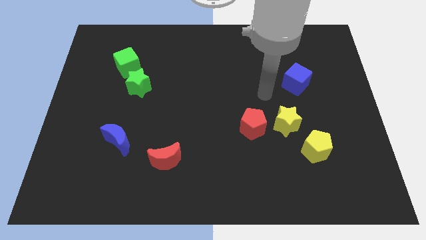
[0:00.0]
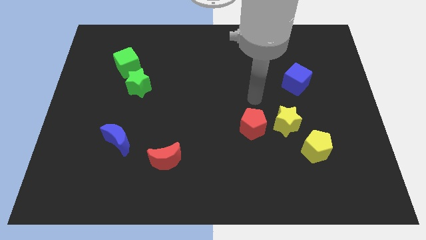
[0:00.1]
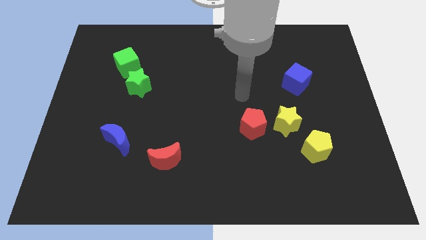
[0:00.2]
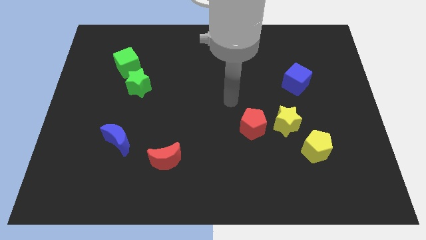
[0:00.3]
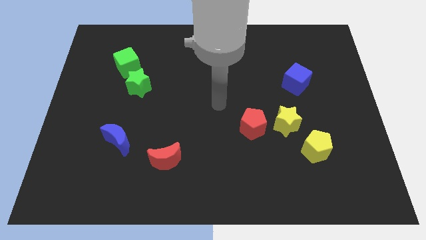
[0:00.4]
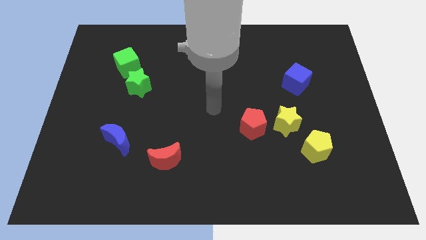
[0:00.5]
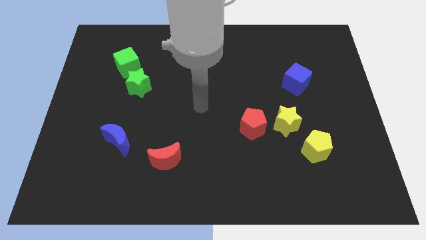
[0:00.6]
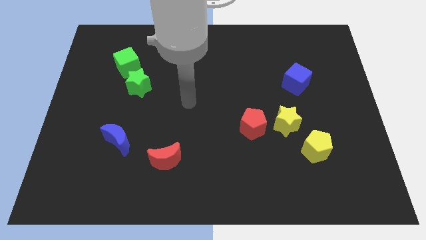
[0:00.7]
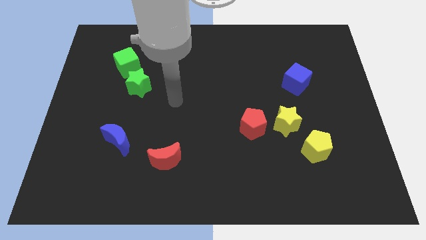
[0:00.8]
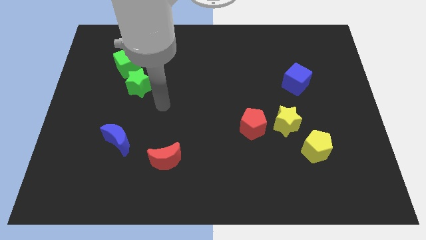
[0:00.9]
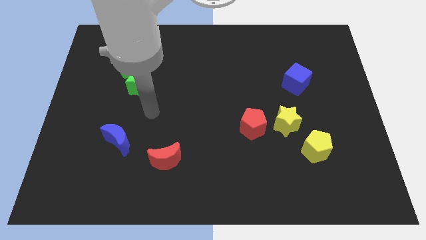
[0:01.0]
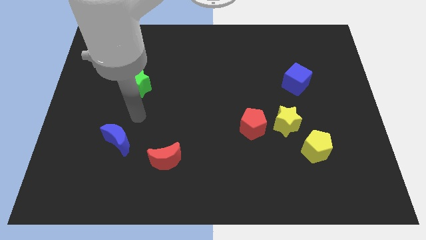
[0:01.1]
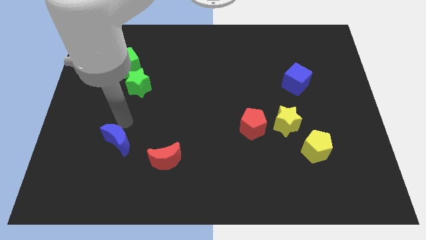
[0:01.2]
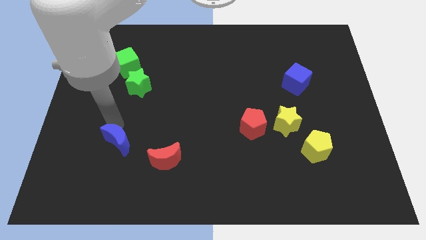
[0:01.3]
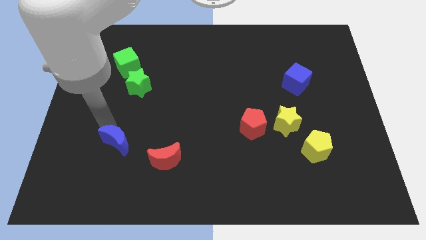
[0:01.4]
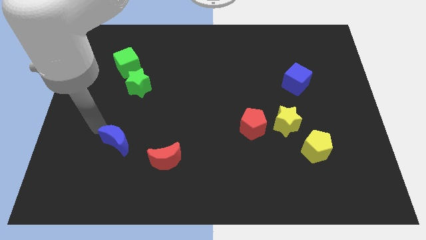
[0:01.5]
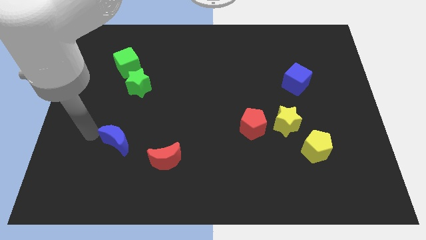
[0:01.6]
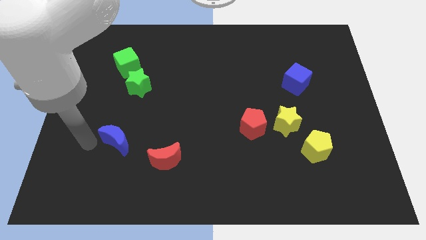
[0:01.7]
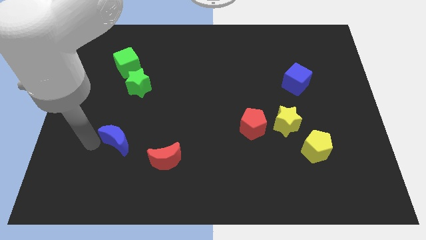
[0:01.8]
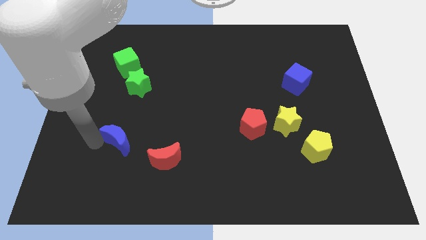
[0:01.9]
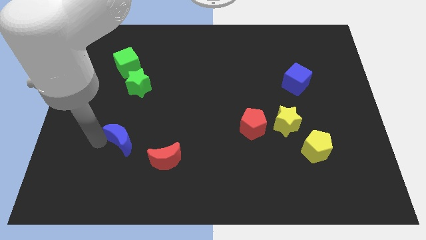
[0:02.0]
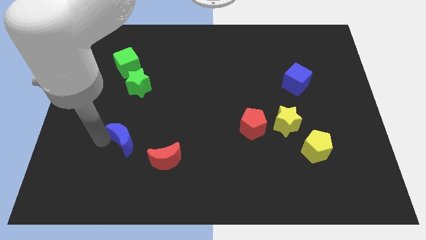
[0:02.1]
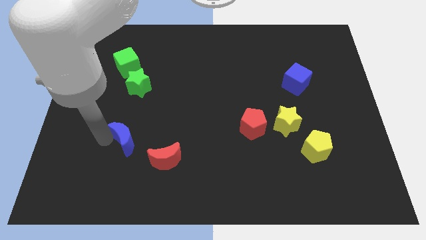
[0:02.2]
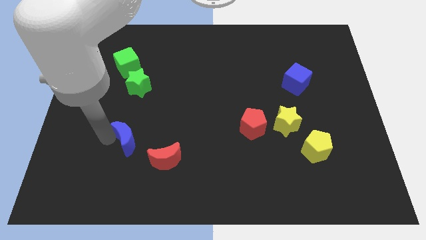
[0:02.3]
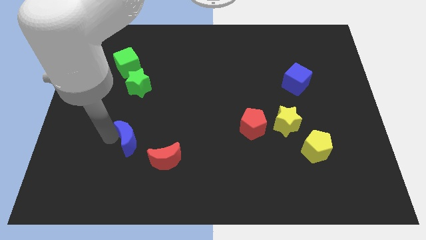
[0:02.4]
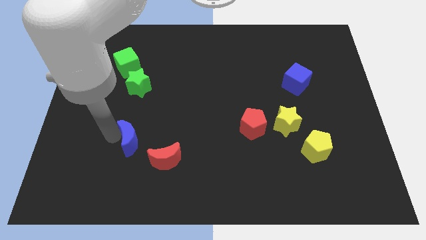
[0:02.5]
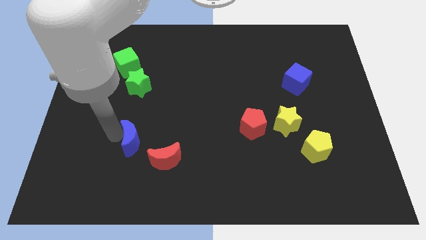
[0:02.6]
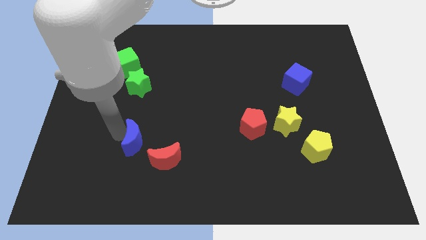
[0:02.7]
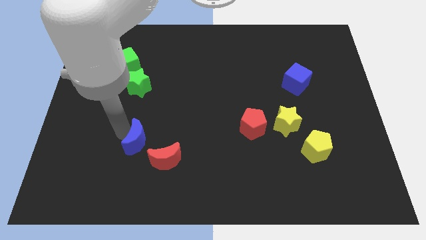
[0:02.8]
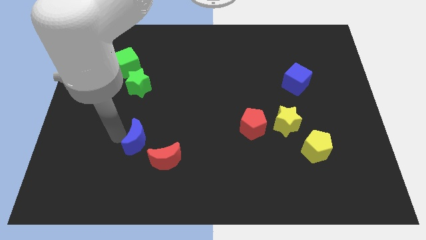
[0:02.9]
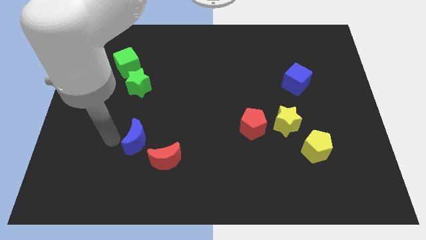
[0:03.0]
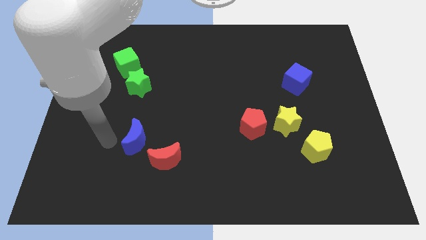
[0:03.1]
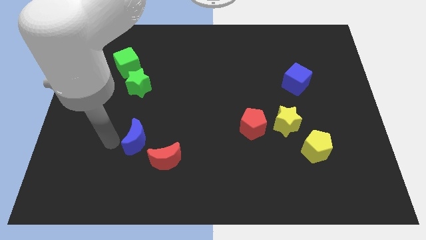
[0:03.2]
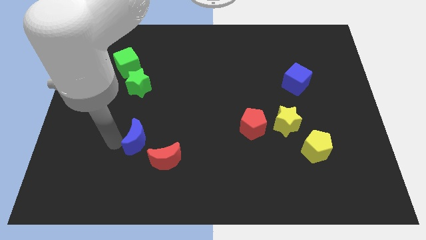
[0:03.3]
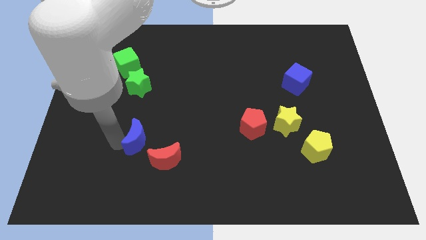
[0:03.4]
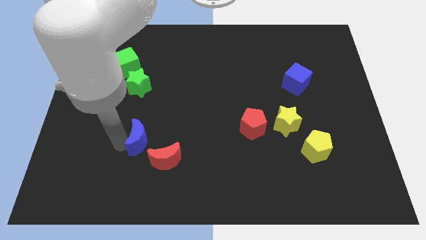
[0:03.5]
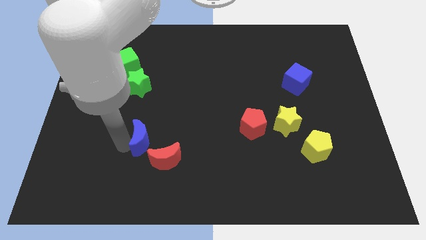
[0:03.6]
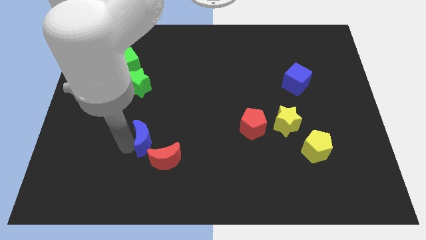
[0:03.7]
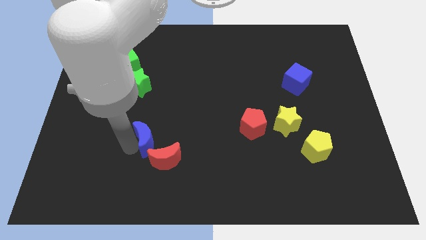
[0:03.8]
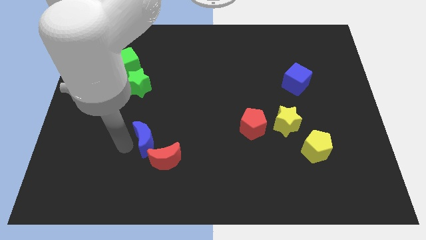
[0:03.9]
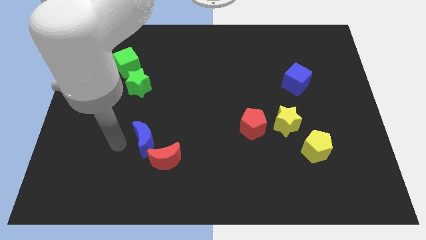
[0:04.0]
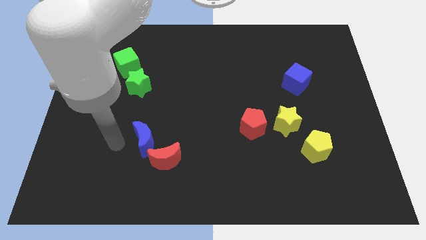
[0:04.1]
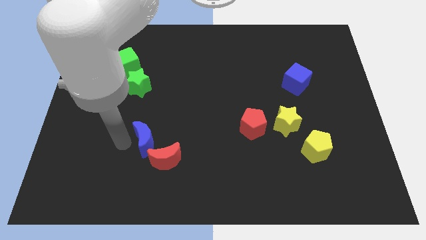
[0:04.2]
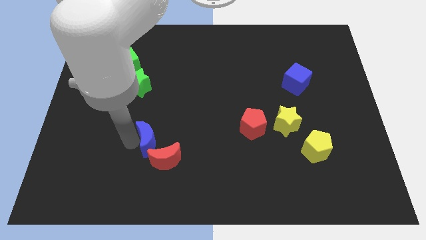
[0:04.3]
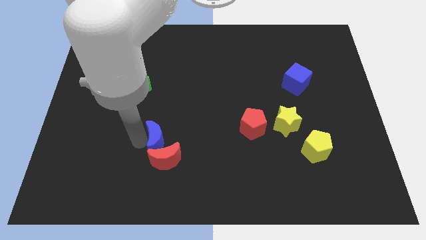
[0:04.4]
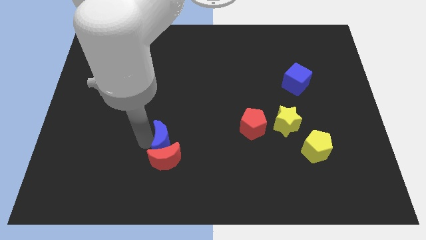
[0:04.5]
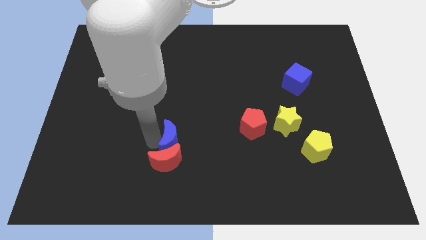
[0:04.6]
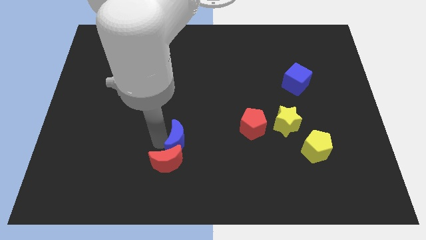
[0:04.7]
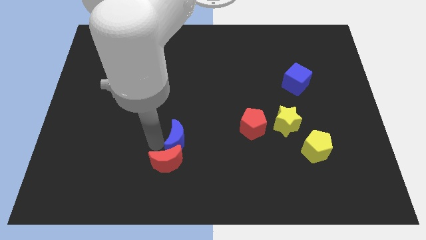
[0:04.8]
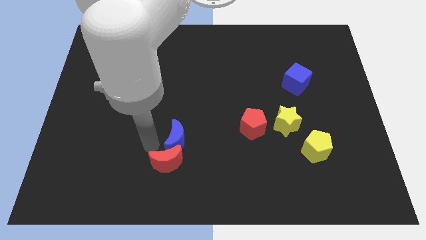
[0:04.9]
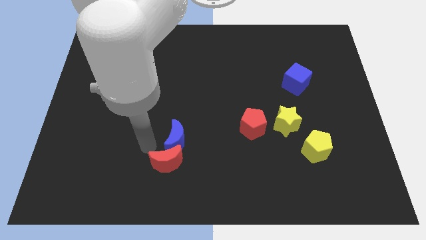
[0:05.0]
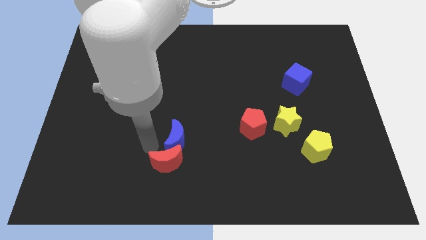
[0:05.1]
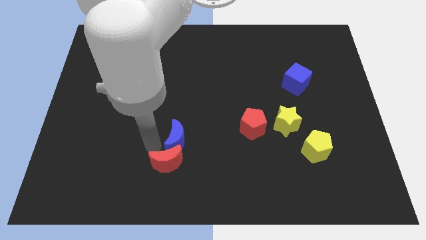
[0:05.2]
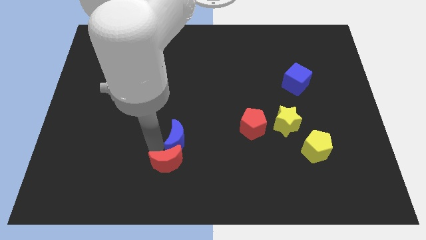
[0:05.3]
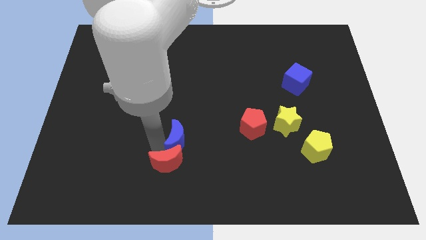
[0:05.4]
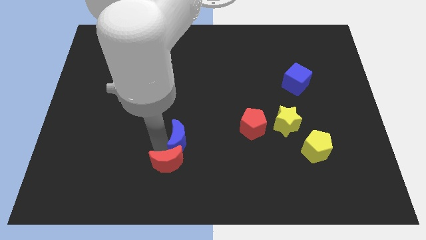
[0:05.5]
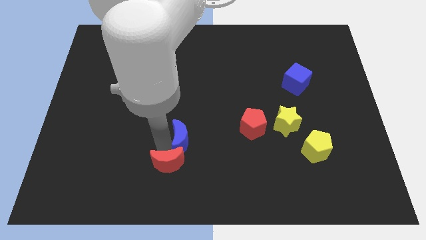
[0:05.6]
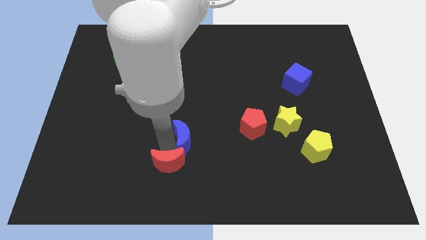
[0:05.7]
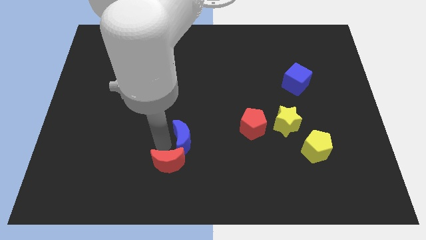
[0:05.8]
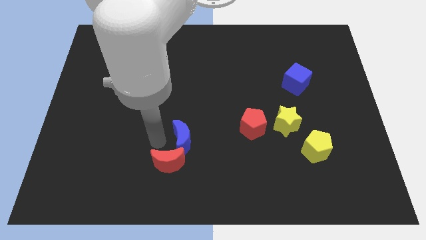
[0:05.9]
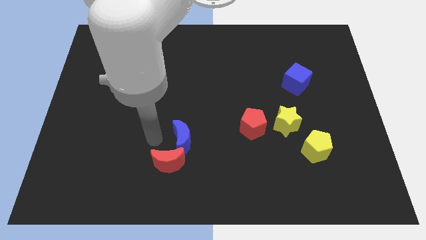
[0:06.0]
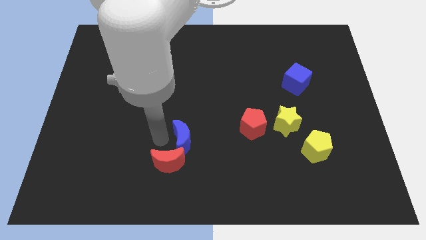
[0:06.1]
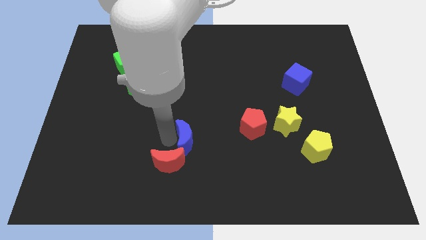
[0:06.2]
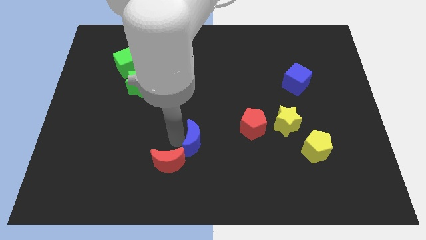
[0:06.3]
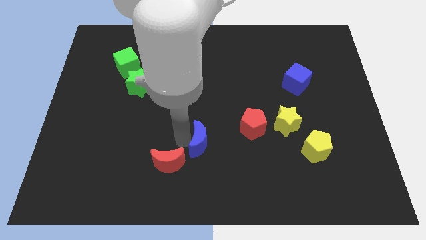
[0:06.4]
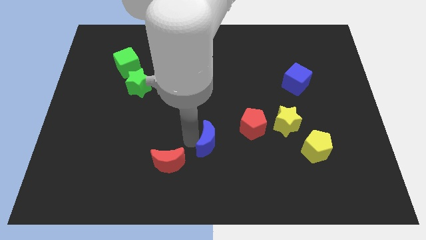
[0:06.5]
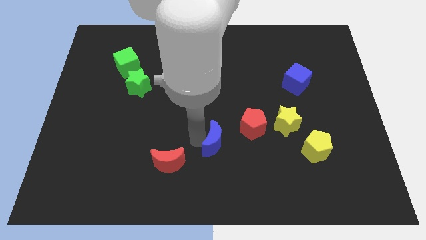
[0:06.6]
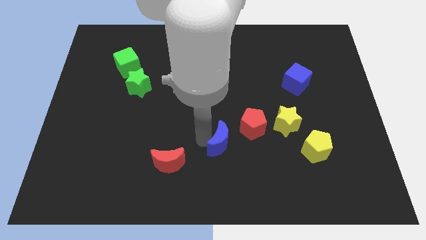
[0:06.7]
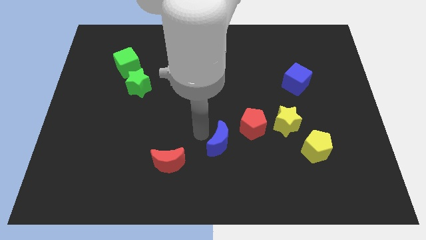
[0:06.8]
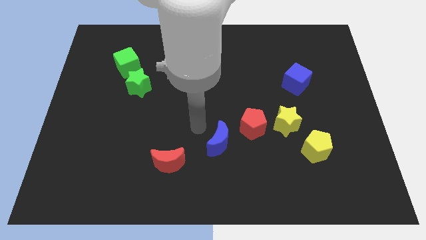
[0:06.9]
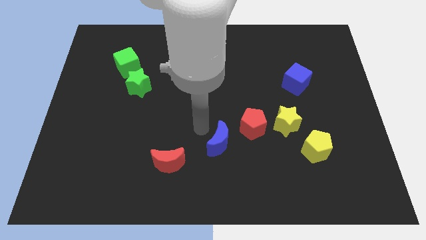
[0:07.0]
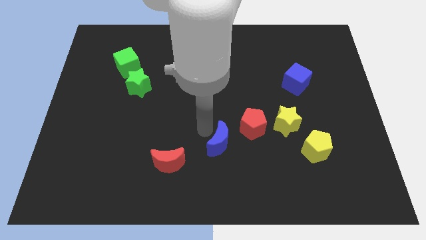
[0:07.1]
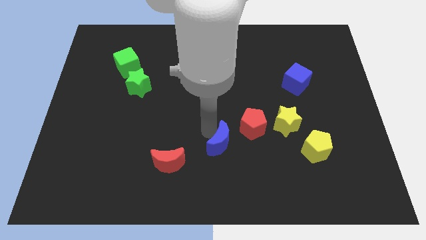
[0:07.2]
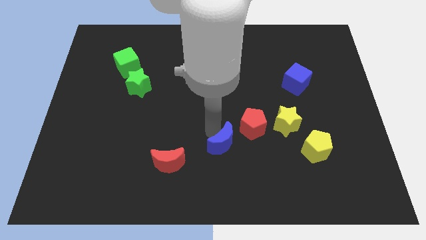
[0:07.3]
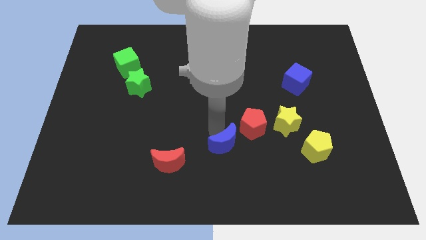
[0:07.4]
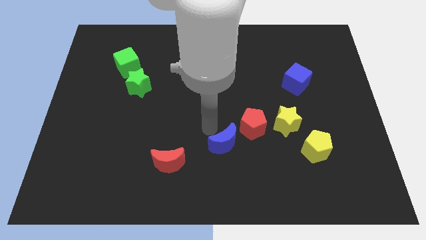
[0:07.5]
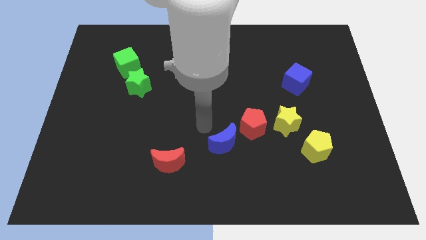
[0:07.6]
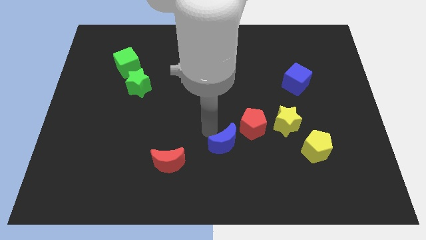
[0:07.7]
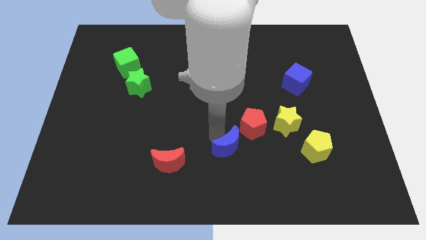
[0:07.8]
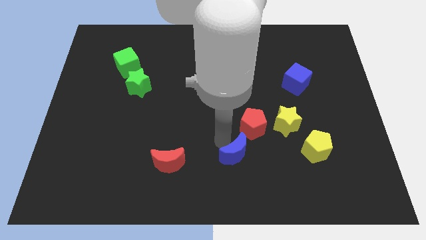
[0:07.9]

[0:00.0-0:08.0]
push the blue moon to the bottom of the red pentagon
